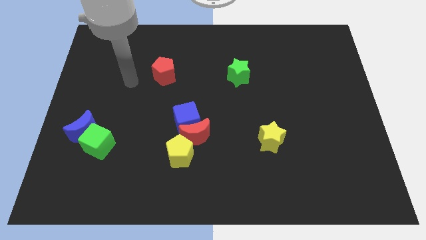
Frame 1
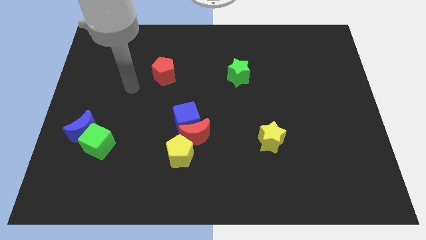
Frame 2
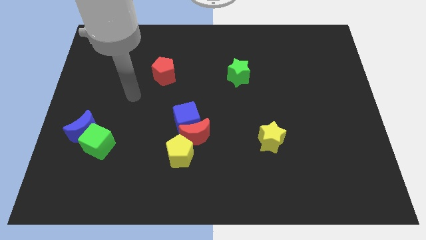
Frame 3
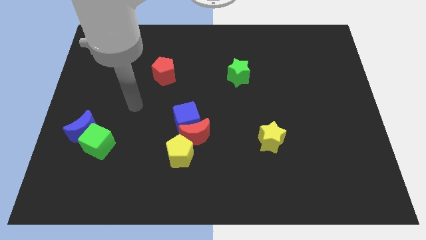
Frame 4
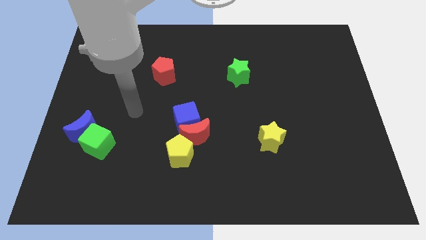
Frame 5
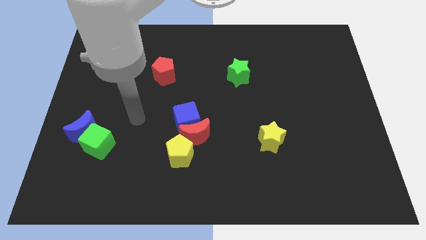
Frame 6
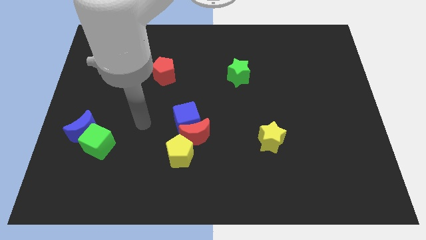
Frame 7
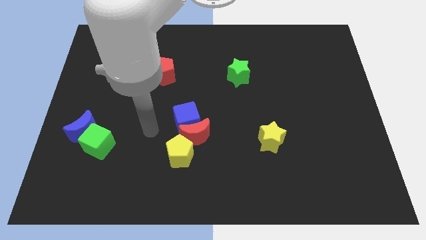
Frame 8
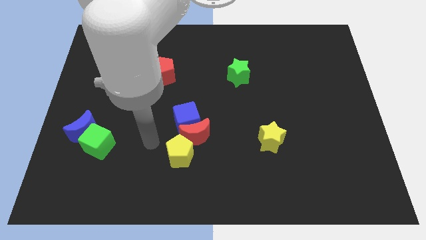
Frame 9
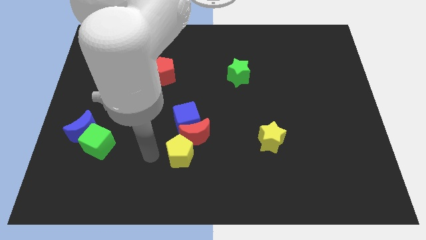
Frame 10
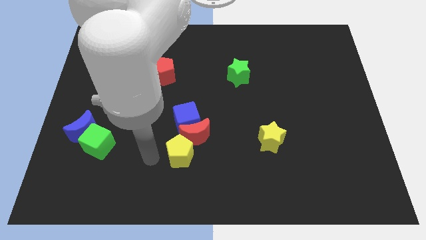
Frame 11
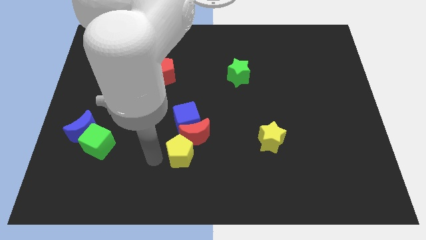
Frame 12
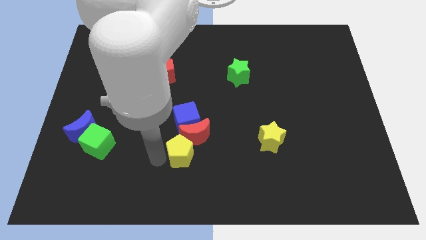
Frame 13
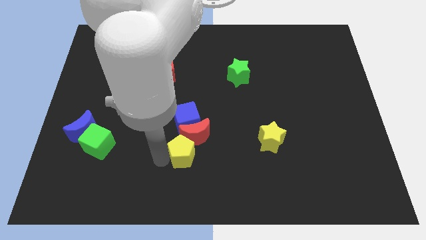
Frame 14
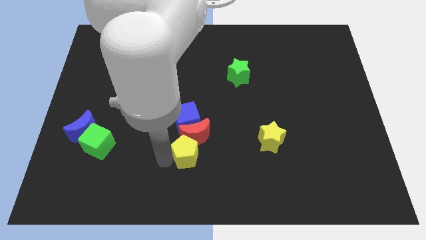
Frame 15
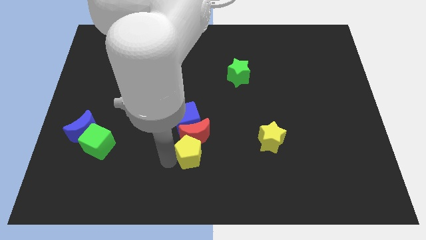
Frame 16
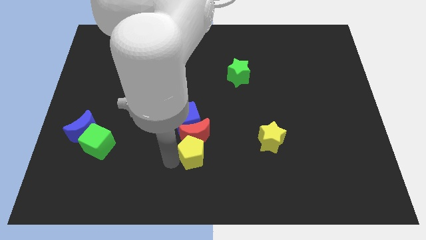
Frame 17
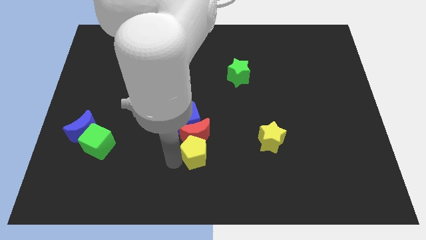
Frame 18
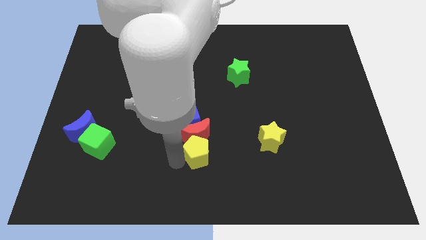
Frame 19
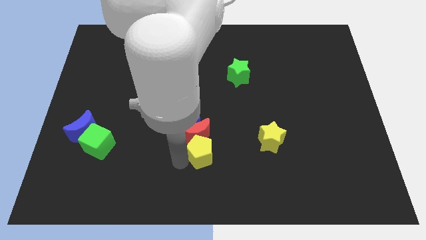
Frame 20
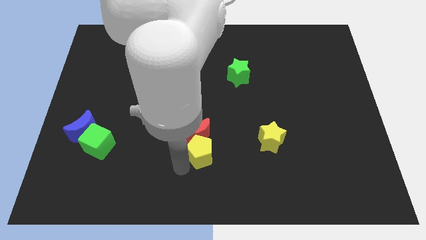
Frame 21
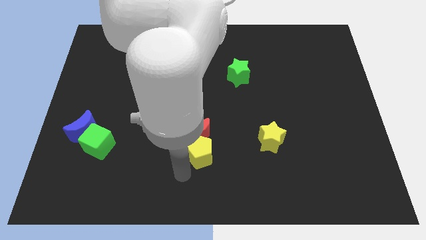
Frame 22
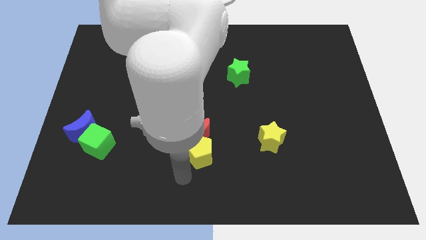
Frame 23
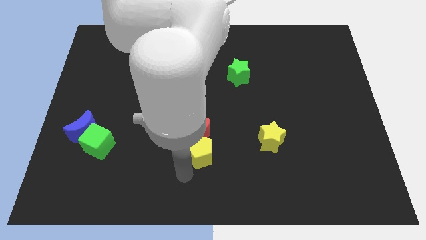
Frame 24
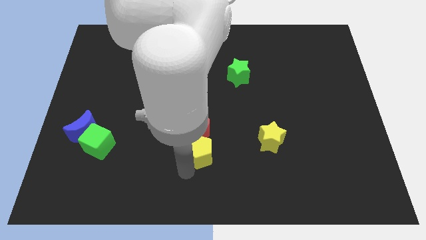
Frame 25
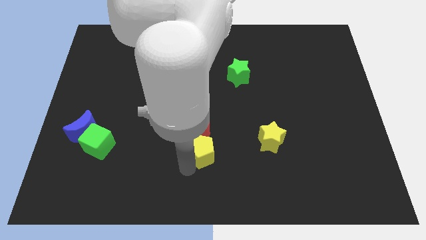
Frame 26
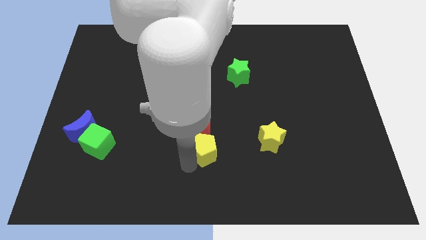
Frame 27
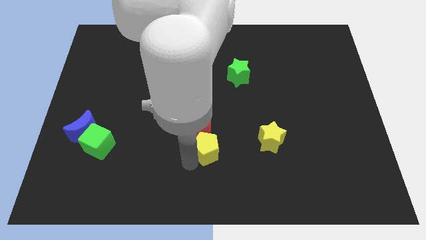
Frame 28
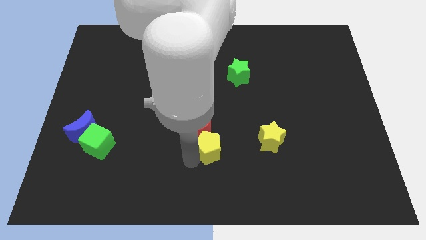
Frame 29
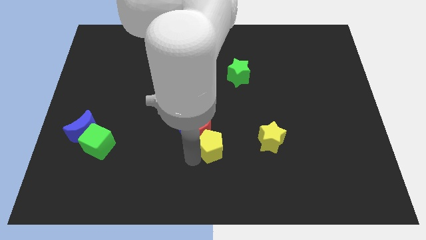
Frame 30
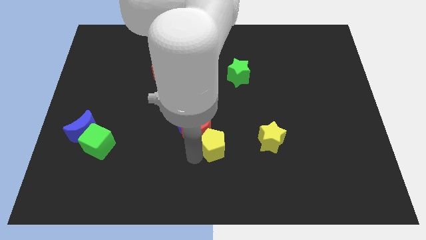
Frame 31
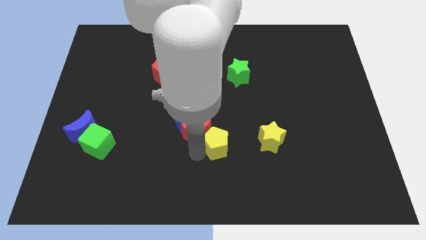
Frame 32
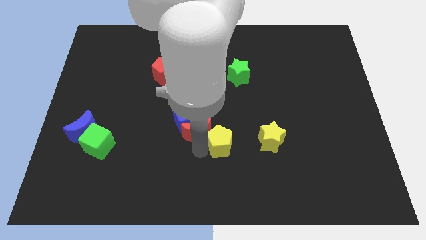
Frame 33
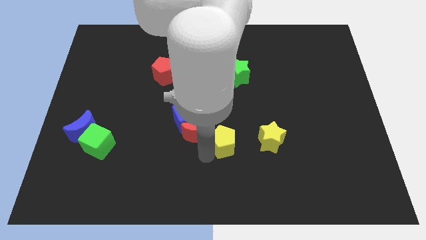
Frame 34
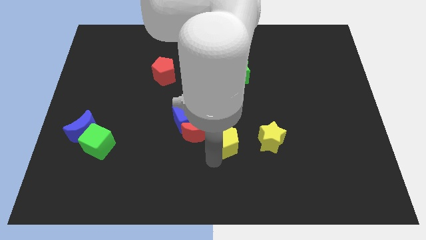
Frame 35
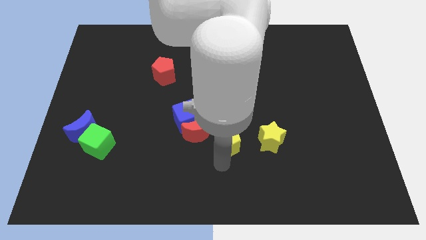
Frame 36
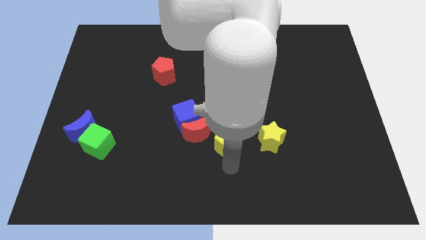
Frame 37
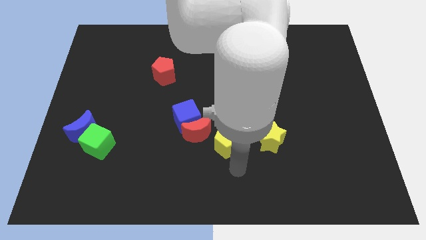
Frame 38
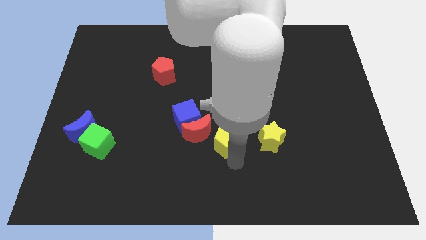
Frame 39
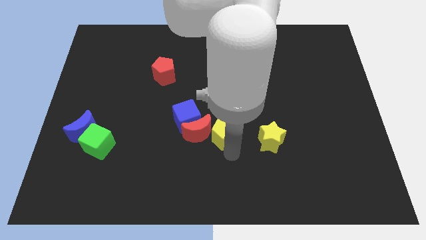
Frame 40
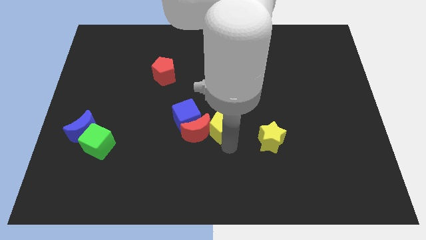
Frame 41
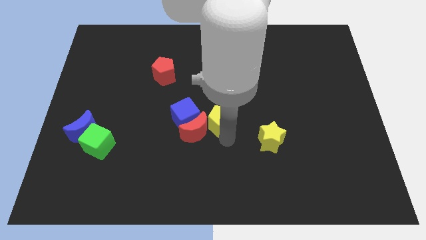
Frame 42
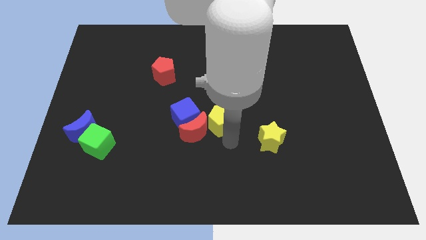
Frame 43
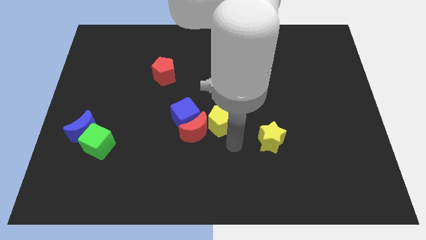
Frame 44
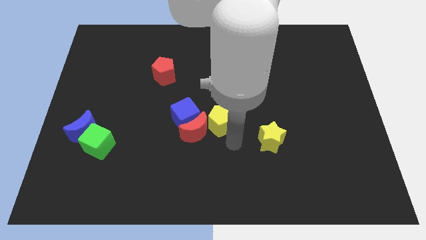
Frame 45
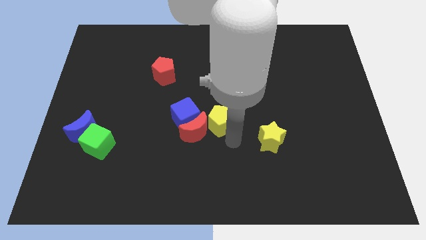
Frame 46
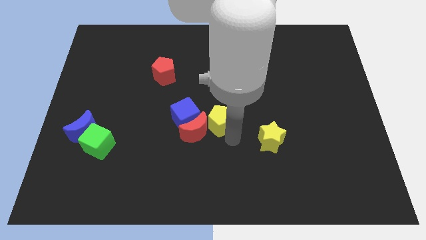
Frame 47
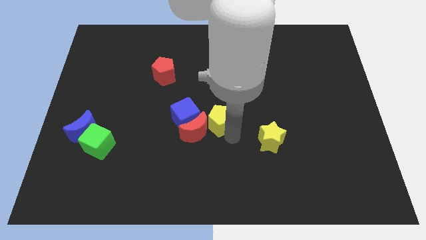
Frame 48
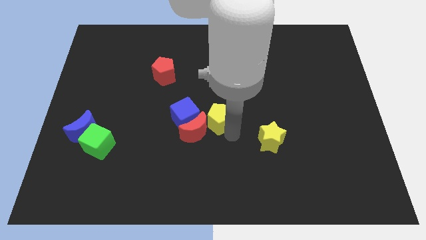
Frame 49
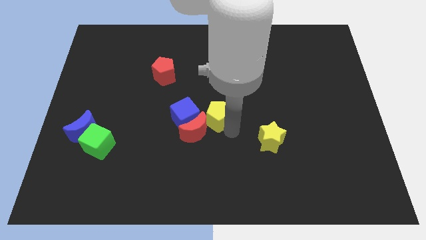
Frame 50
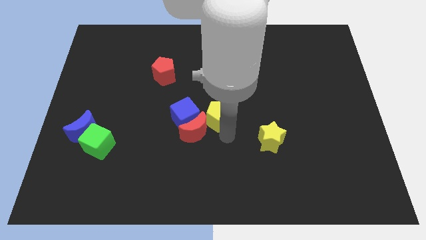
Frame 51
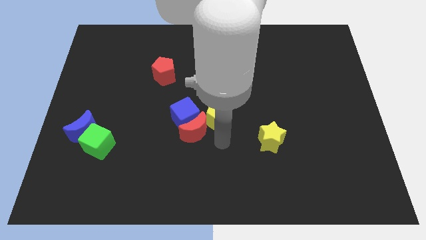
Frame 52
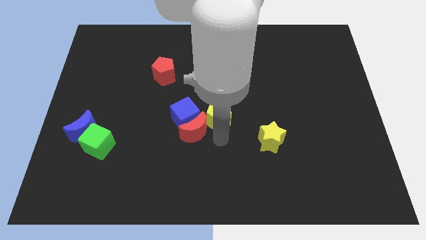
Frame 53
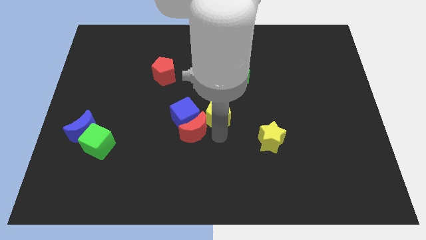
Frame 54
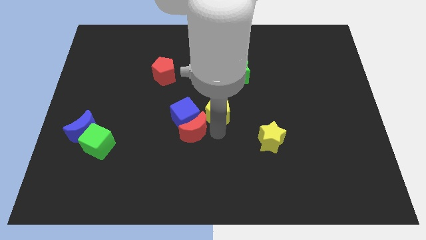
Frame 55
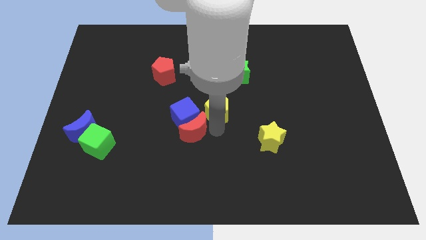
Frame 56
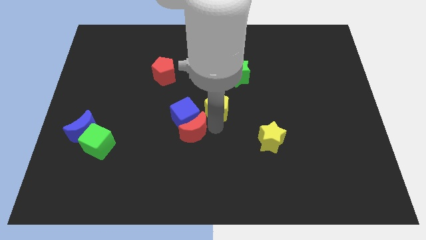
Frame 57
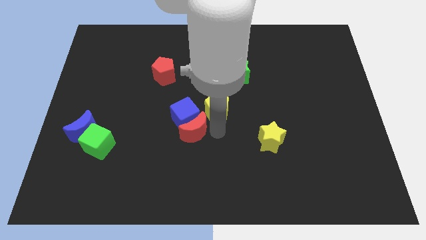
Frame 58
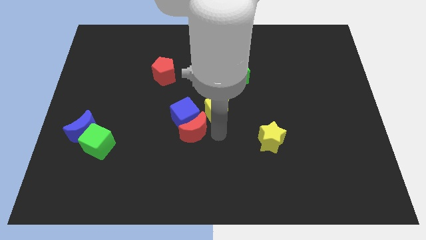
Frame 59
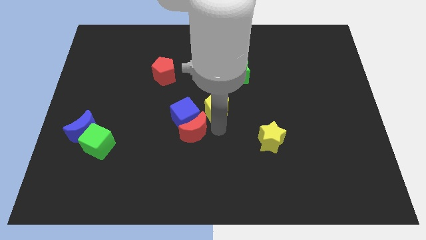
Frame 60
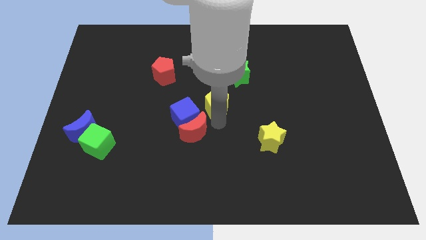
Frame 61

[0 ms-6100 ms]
slide the yellow pentagon to the bottom left side of the green star
